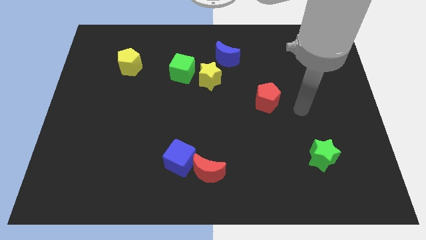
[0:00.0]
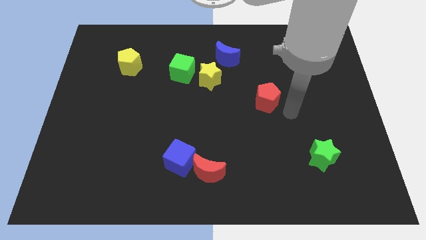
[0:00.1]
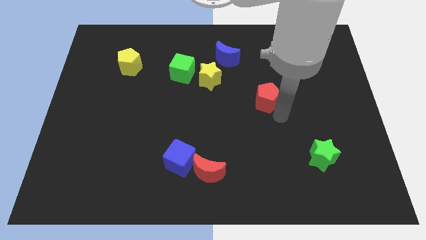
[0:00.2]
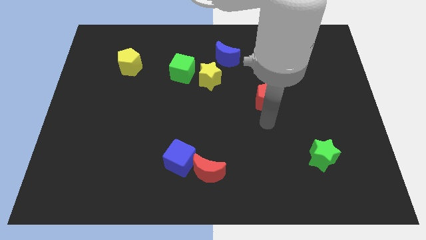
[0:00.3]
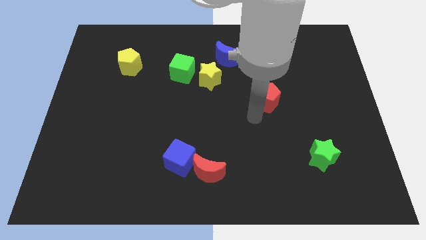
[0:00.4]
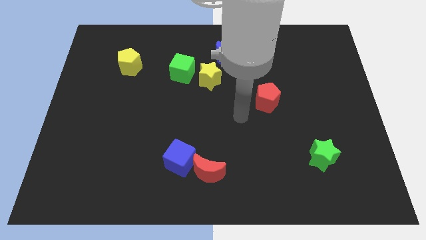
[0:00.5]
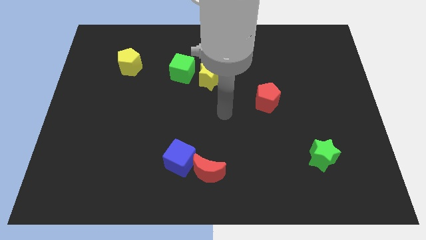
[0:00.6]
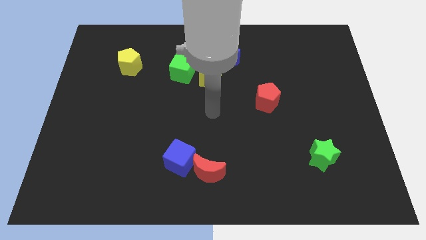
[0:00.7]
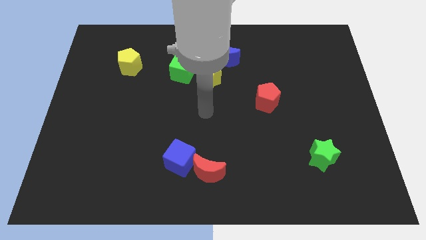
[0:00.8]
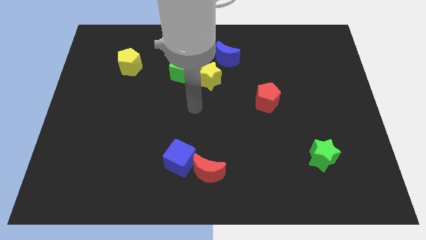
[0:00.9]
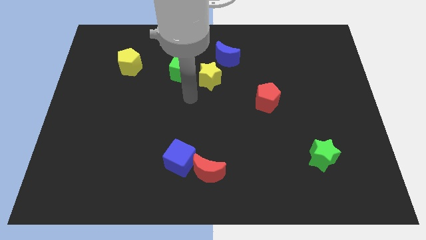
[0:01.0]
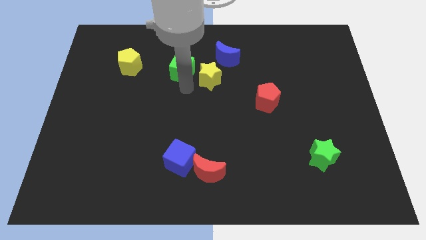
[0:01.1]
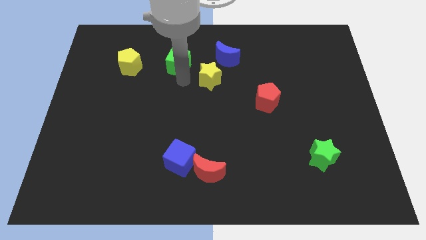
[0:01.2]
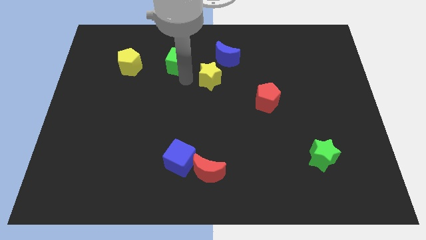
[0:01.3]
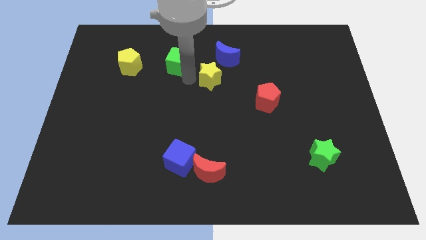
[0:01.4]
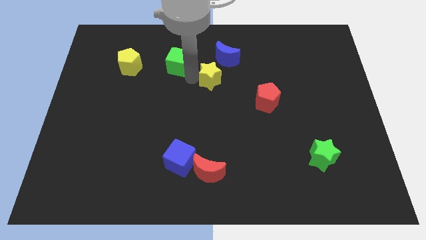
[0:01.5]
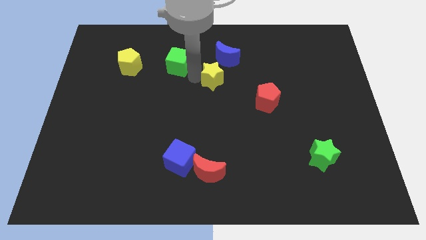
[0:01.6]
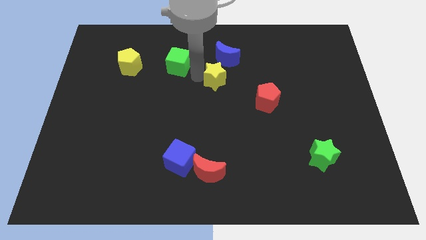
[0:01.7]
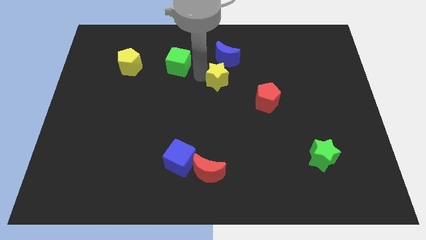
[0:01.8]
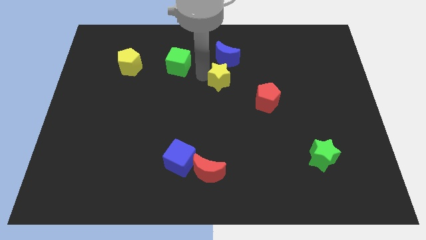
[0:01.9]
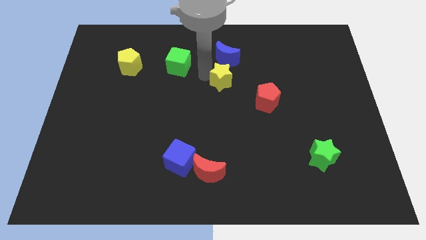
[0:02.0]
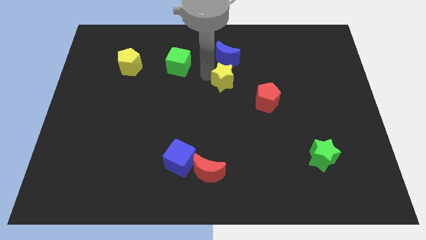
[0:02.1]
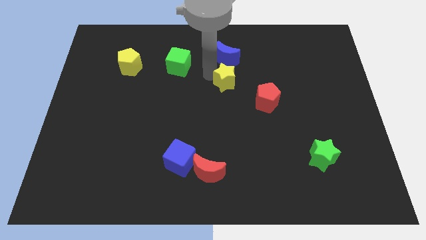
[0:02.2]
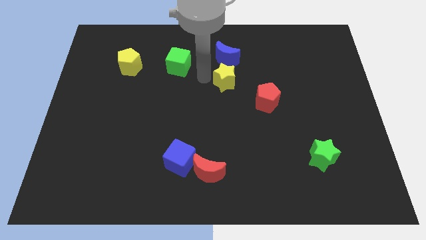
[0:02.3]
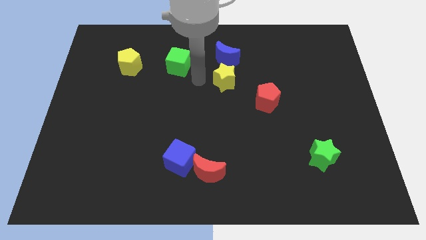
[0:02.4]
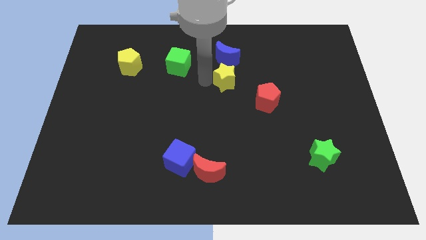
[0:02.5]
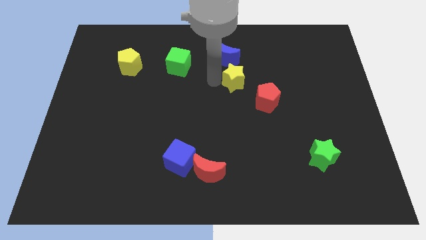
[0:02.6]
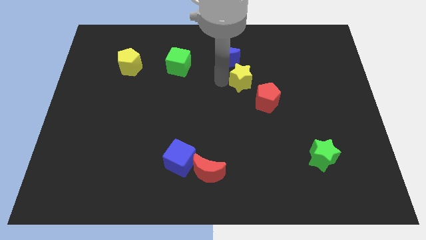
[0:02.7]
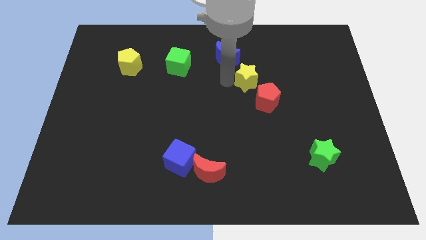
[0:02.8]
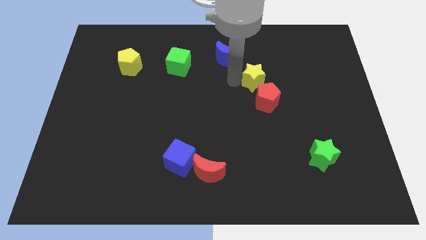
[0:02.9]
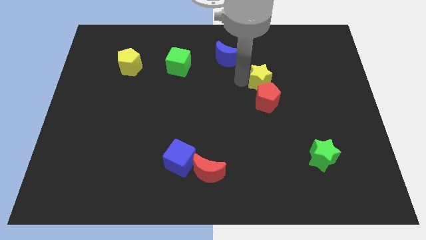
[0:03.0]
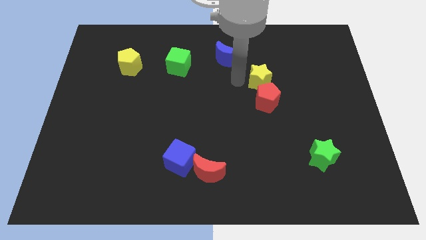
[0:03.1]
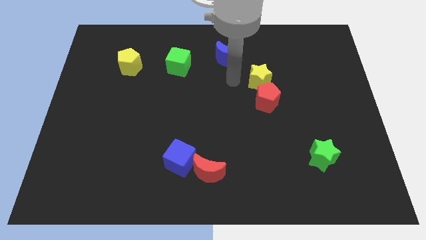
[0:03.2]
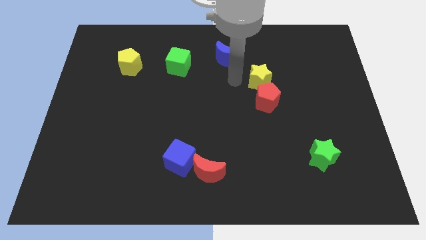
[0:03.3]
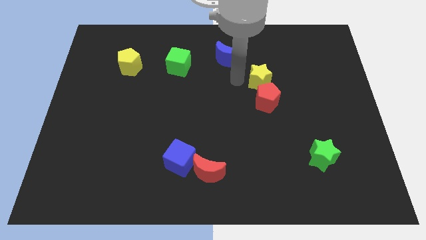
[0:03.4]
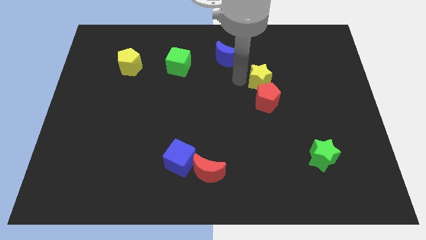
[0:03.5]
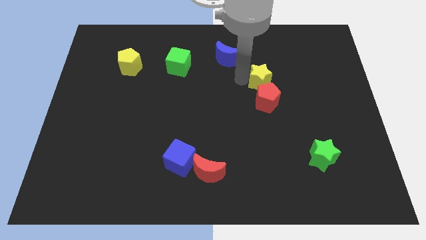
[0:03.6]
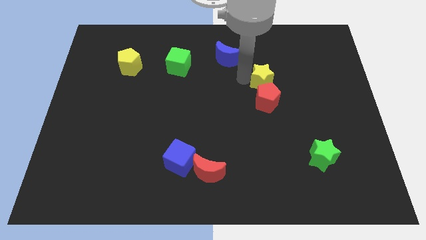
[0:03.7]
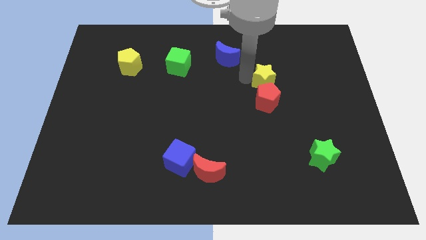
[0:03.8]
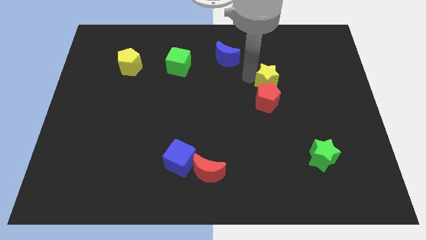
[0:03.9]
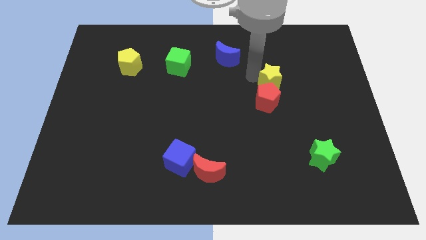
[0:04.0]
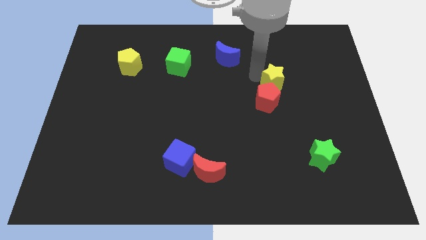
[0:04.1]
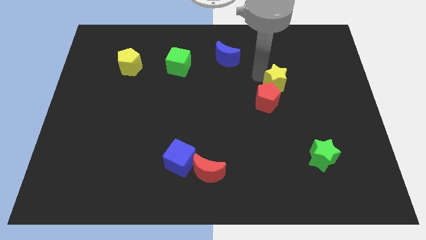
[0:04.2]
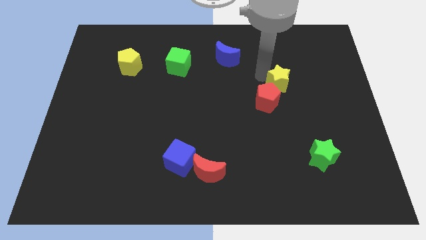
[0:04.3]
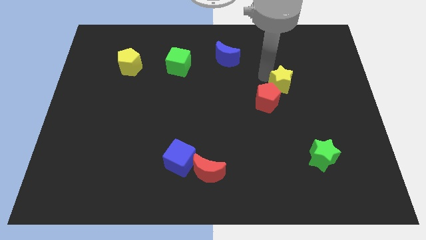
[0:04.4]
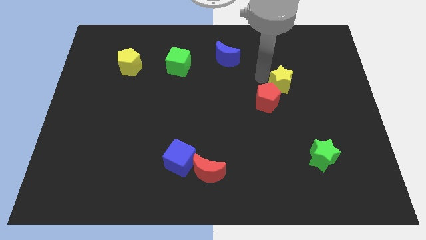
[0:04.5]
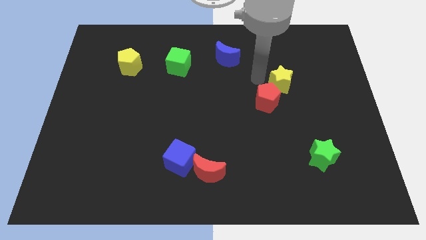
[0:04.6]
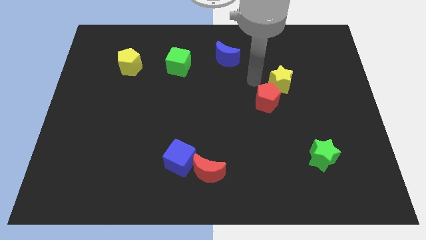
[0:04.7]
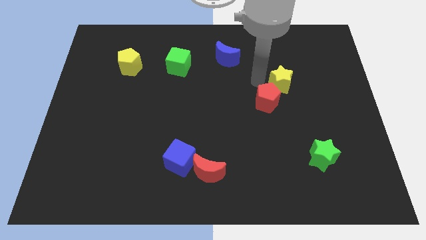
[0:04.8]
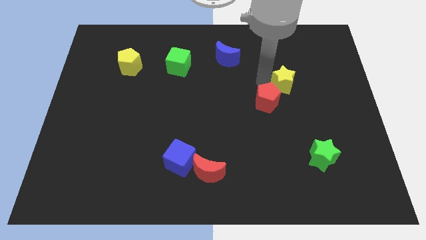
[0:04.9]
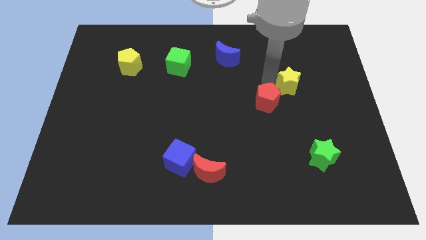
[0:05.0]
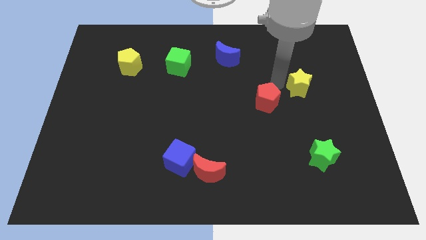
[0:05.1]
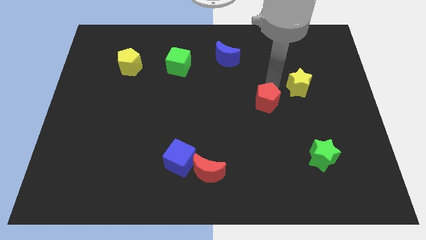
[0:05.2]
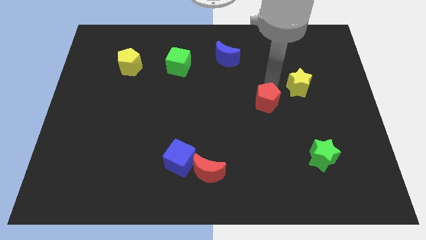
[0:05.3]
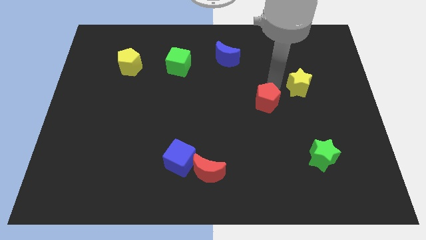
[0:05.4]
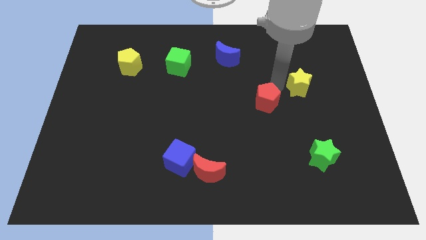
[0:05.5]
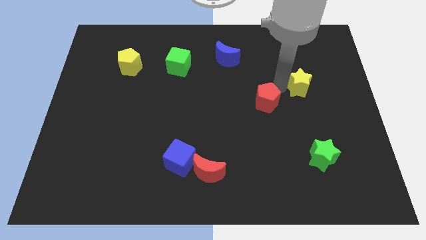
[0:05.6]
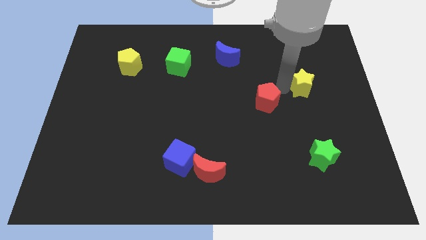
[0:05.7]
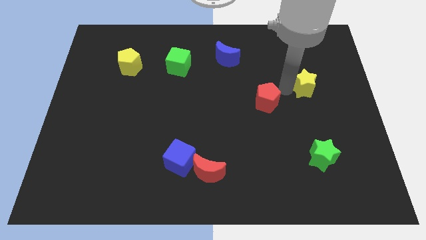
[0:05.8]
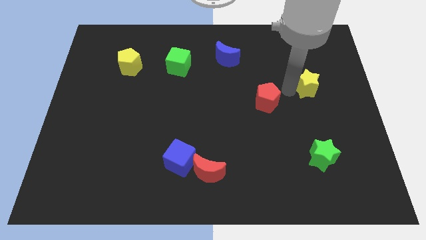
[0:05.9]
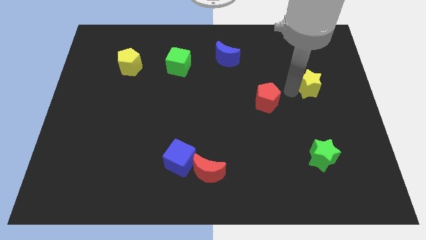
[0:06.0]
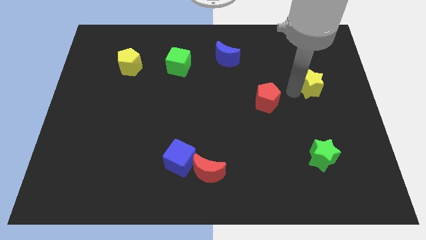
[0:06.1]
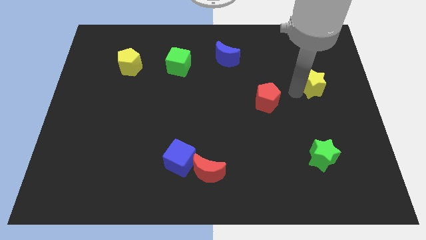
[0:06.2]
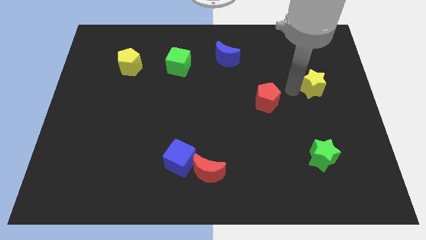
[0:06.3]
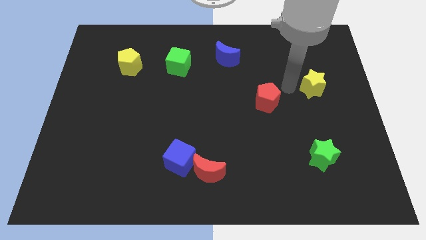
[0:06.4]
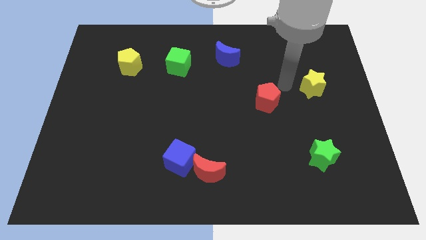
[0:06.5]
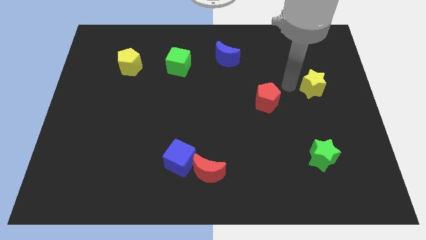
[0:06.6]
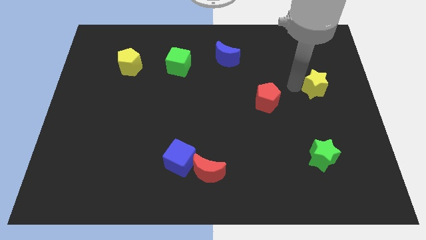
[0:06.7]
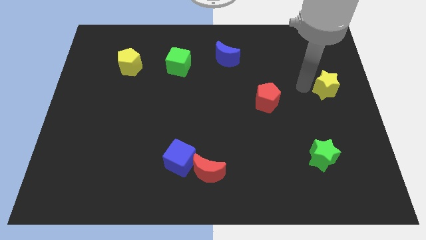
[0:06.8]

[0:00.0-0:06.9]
move the yellow star to the right side of the board
